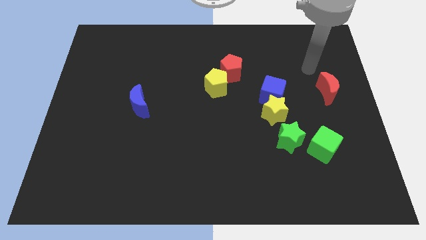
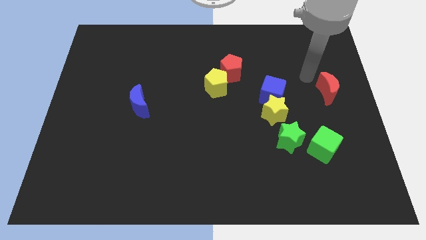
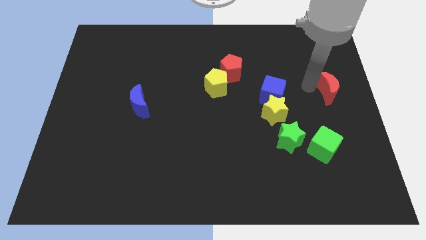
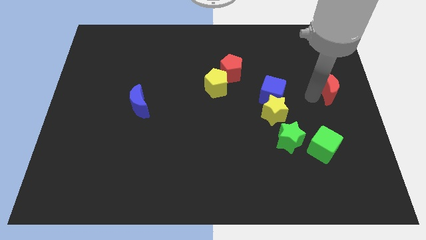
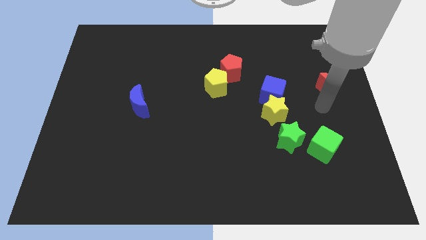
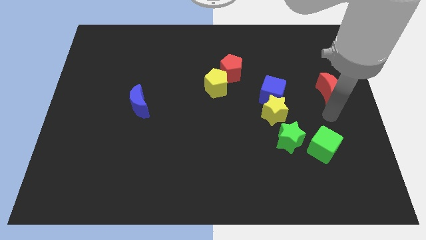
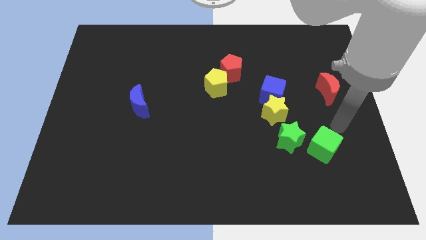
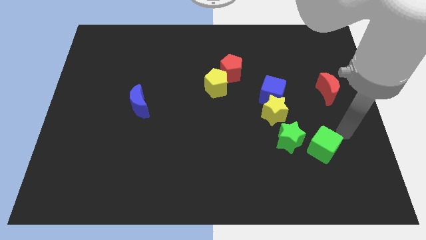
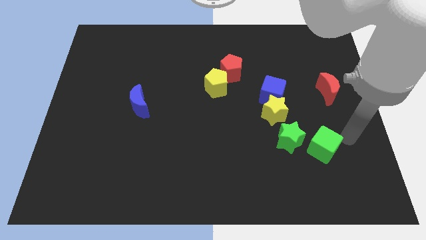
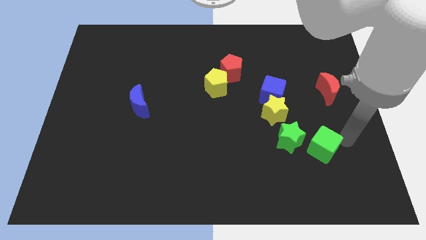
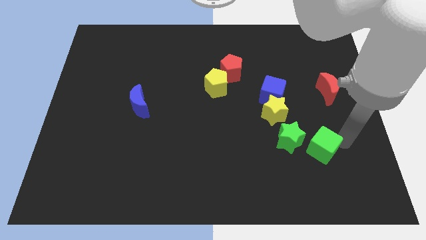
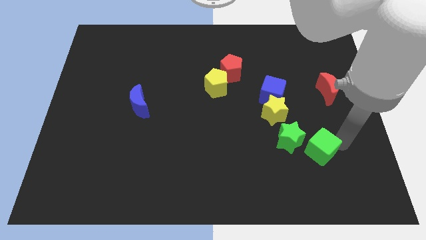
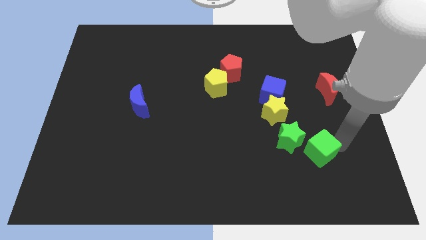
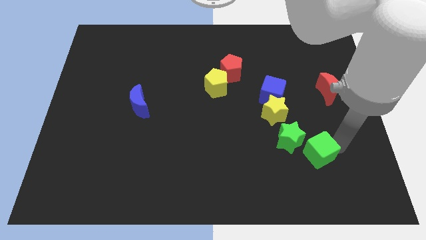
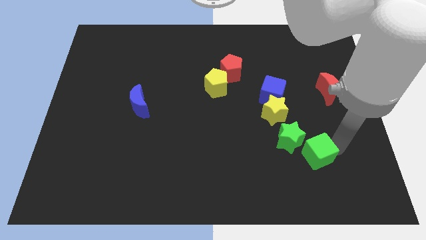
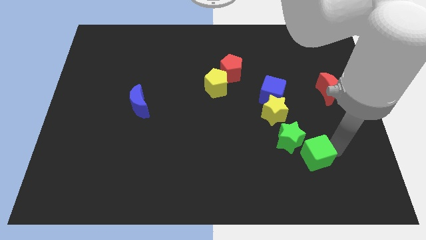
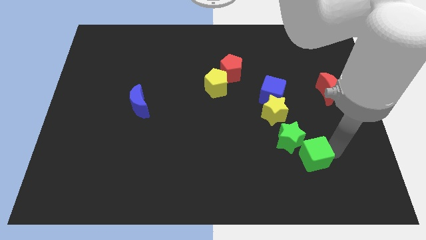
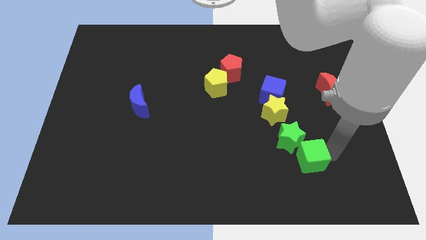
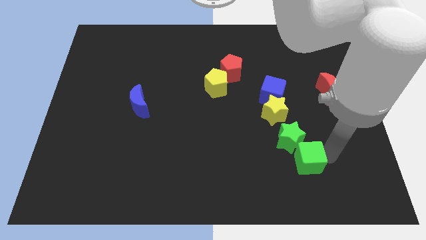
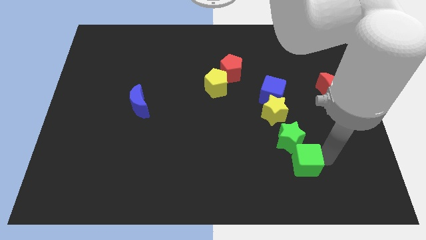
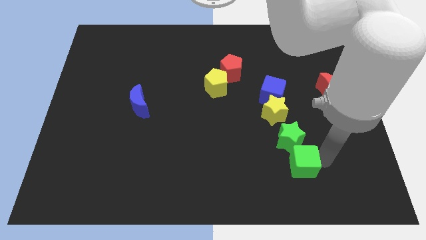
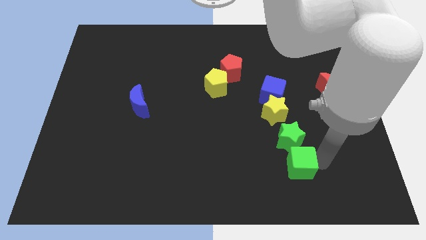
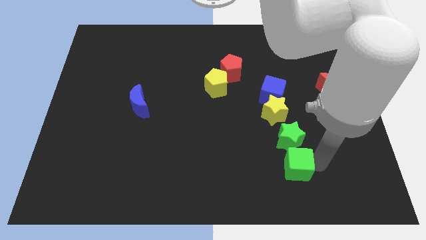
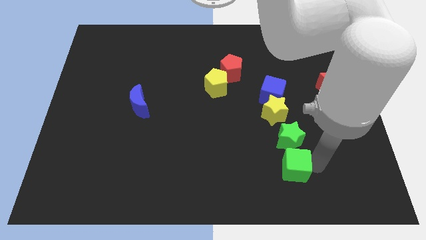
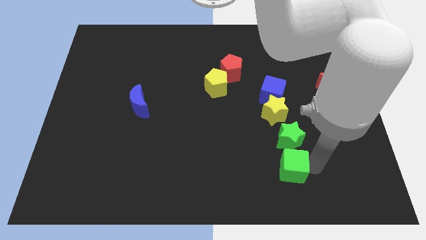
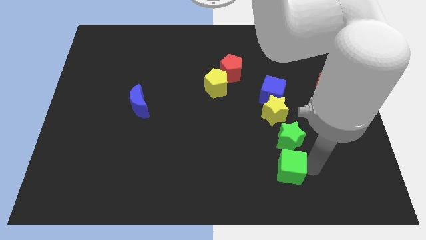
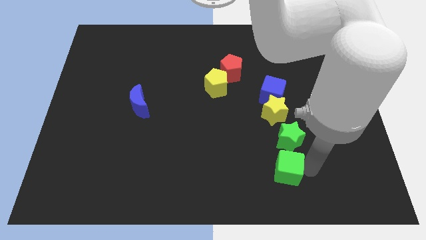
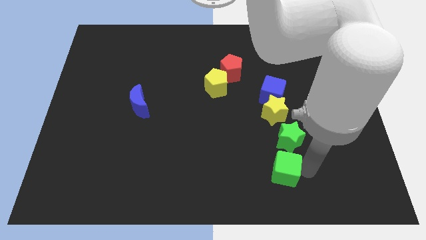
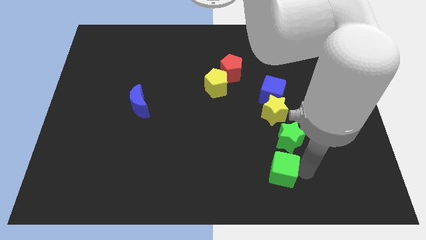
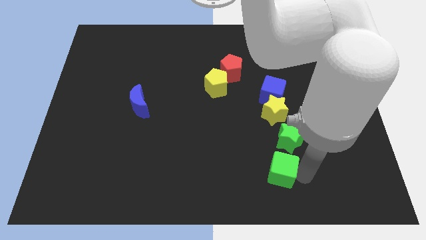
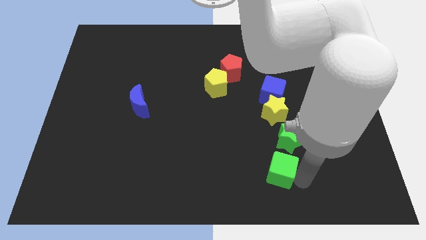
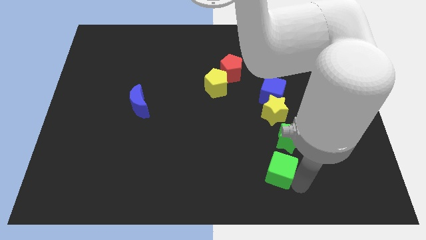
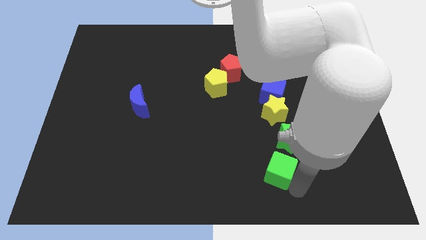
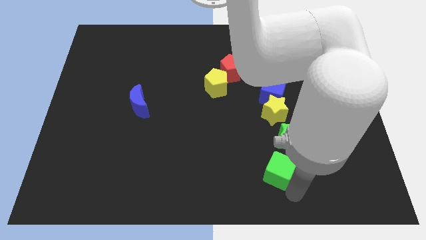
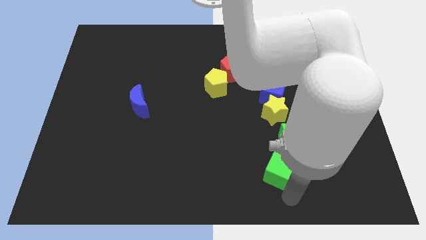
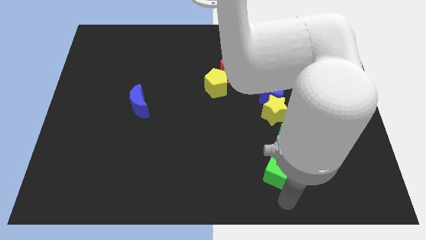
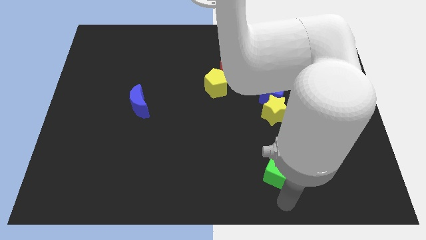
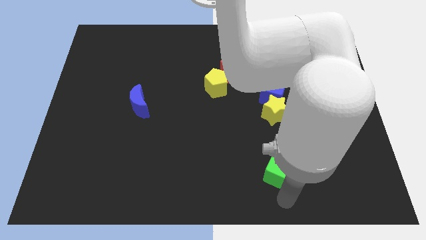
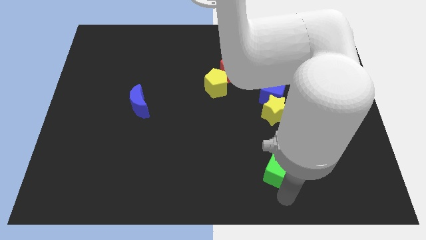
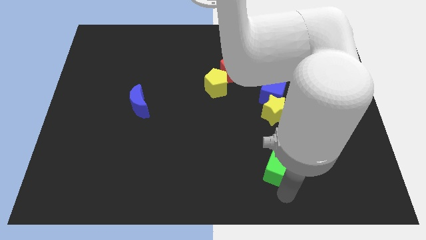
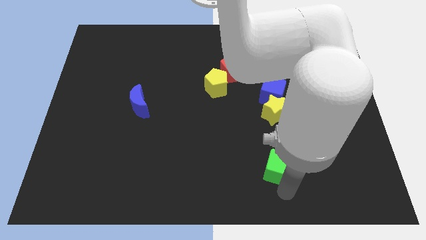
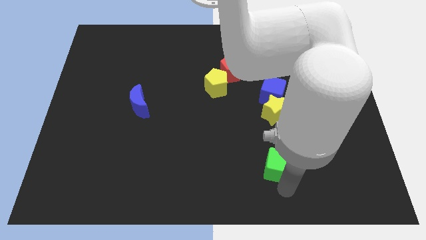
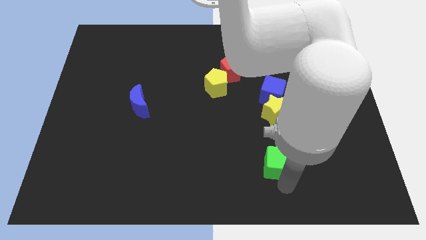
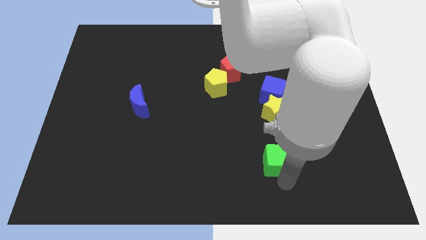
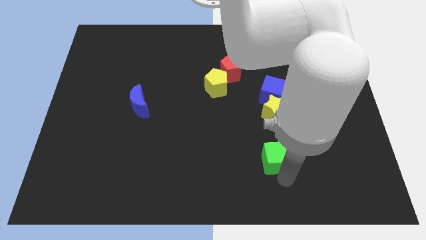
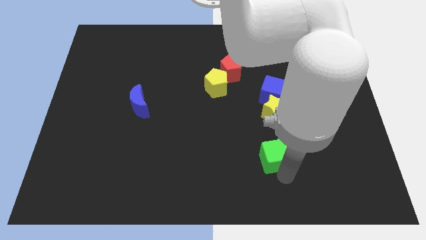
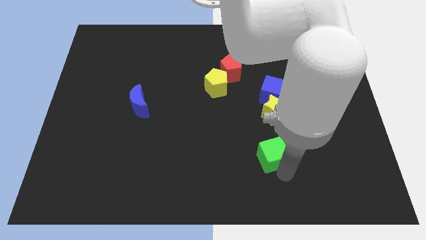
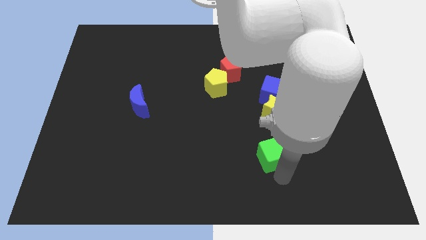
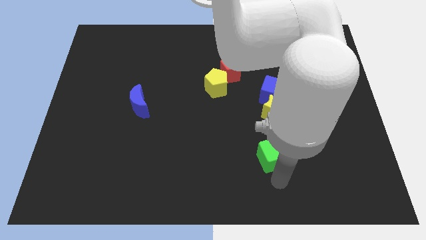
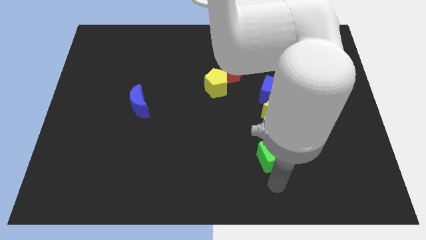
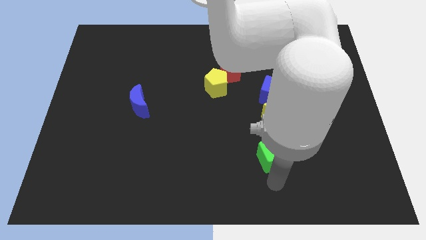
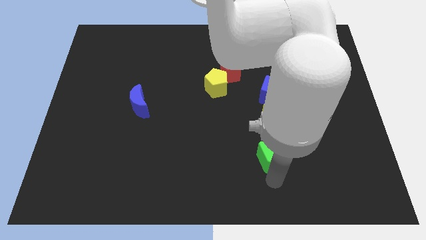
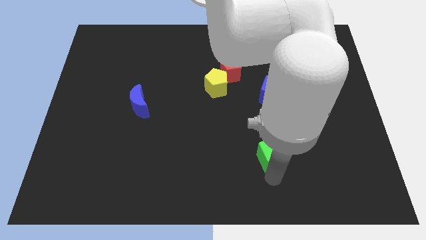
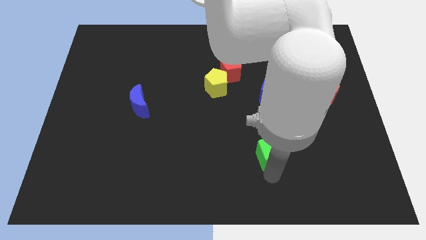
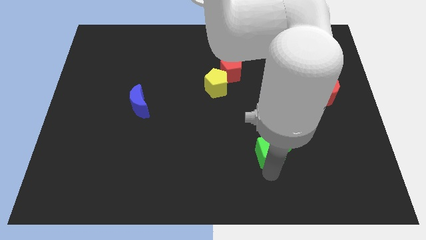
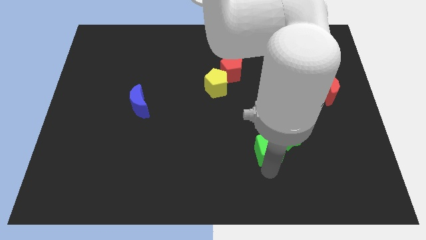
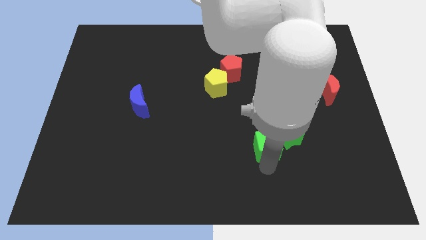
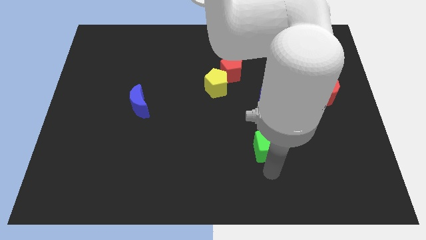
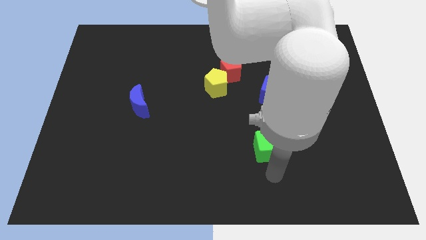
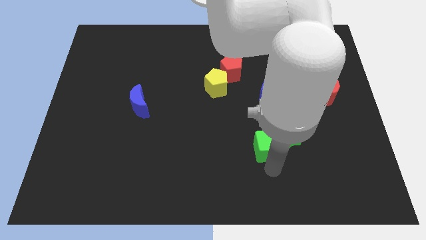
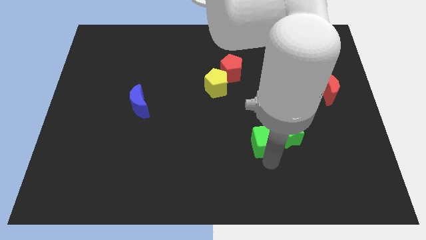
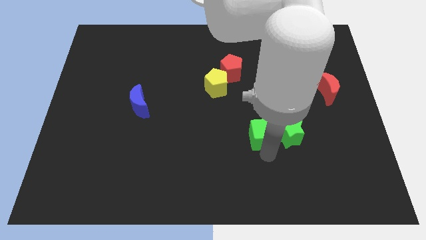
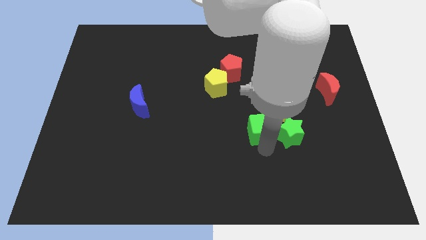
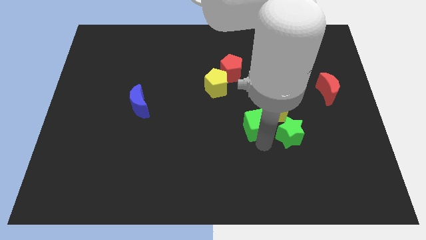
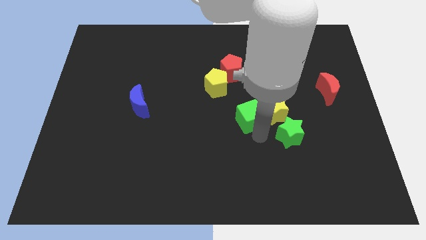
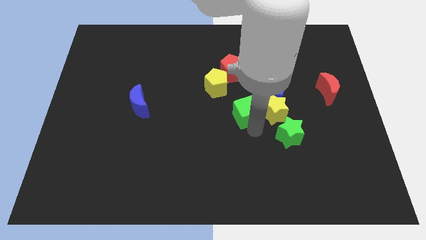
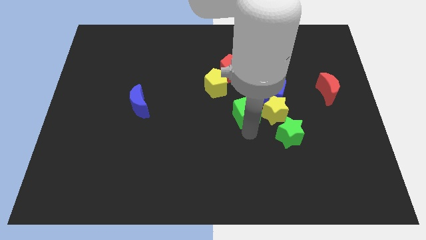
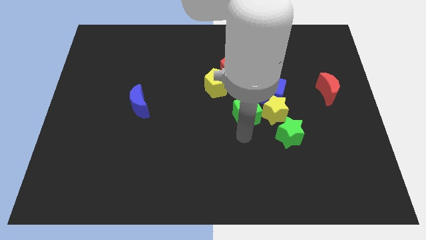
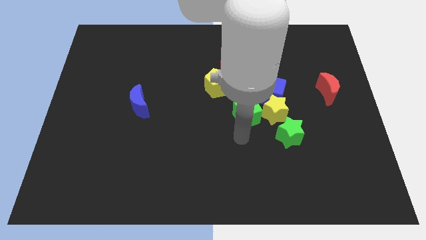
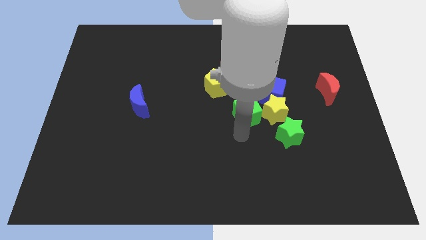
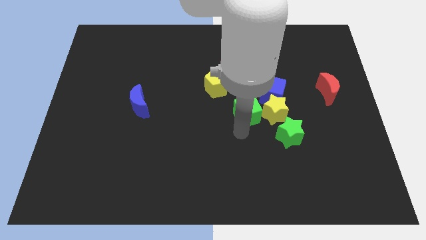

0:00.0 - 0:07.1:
put the green cube to the top left of the yellow star
